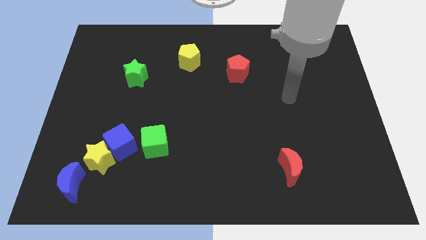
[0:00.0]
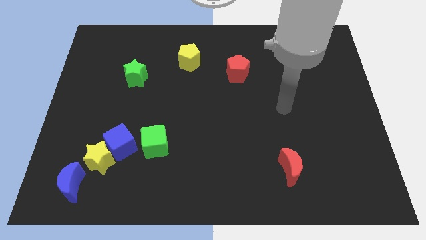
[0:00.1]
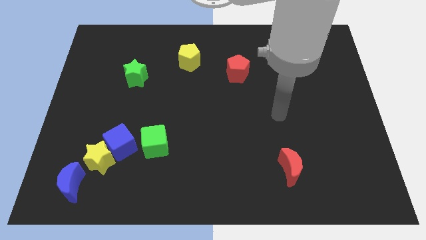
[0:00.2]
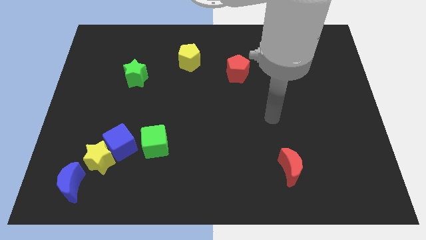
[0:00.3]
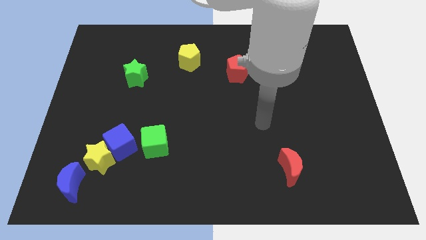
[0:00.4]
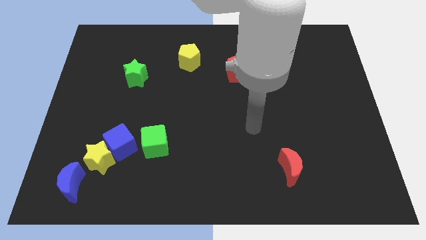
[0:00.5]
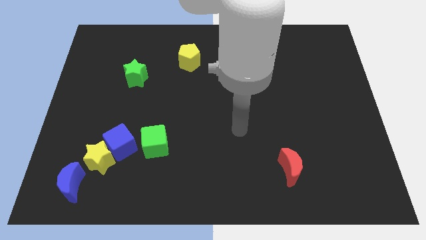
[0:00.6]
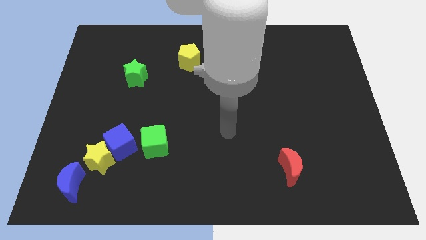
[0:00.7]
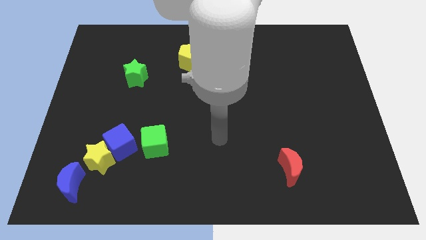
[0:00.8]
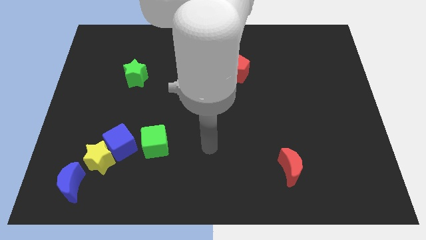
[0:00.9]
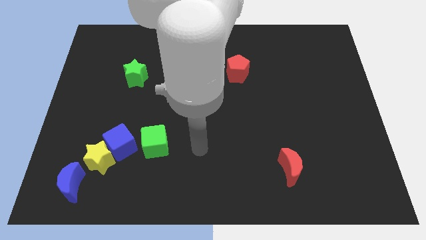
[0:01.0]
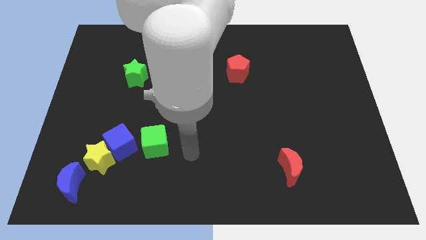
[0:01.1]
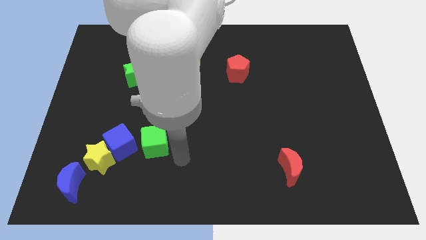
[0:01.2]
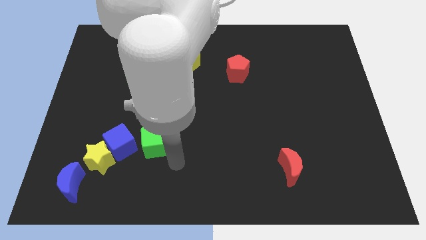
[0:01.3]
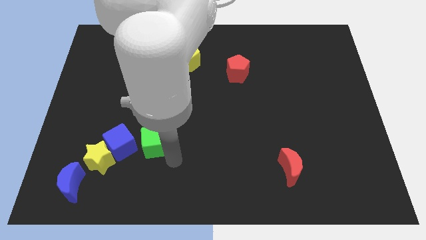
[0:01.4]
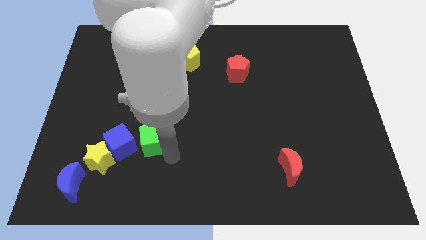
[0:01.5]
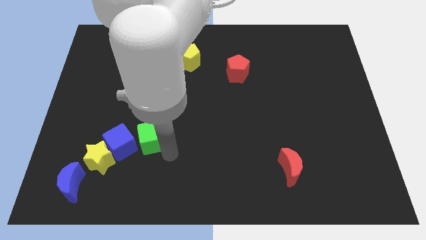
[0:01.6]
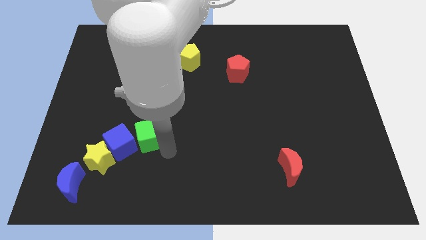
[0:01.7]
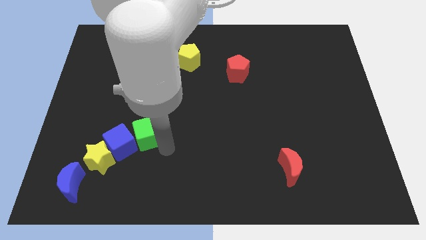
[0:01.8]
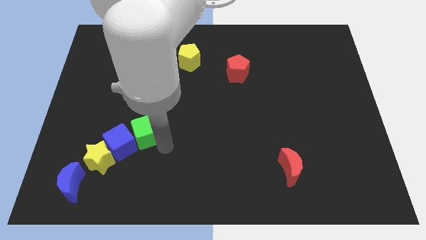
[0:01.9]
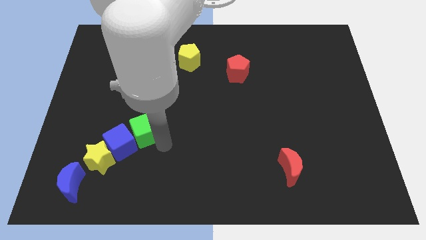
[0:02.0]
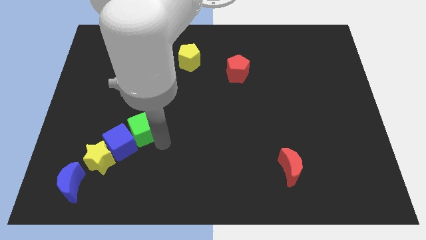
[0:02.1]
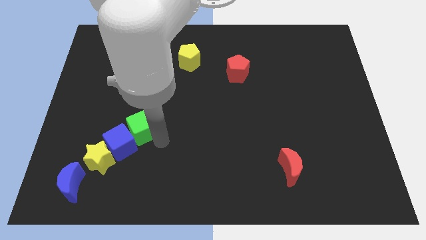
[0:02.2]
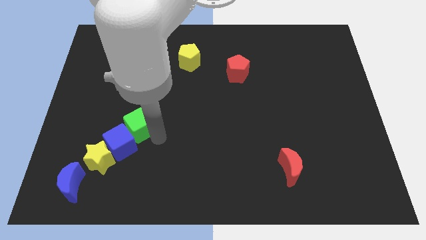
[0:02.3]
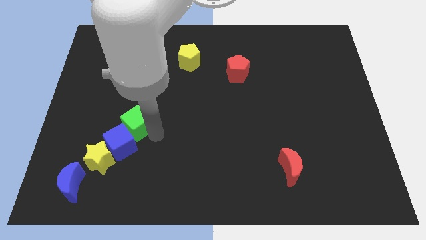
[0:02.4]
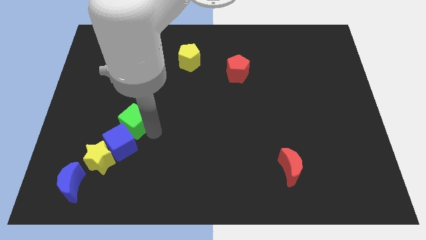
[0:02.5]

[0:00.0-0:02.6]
move the green cube a little up and to the left

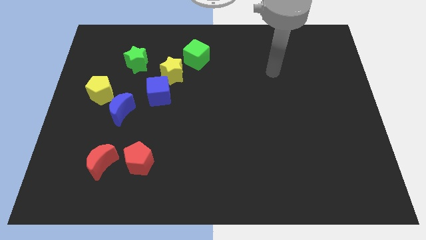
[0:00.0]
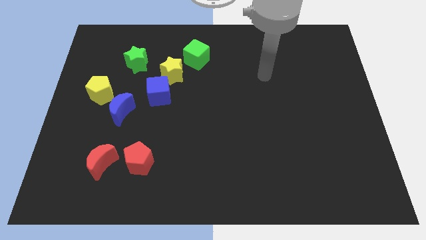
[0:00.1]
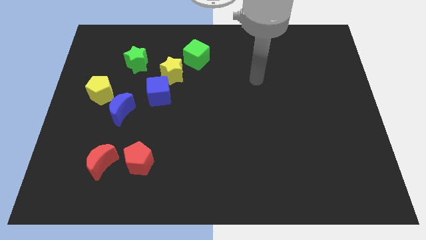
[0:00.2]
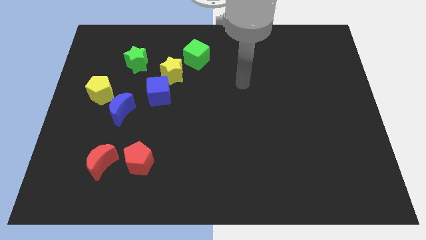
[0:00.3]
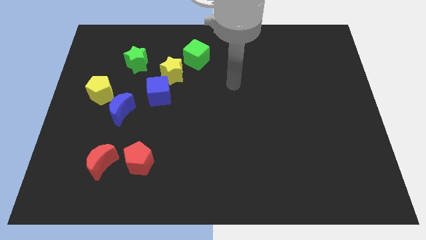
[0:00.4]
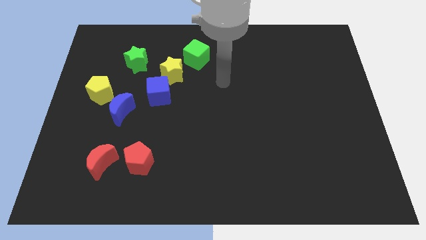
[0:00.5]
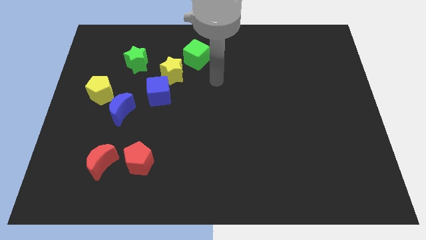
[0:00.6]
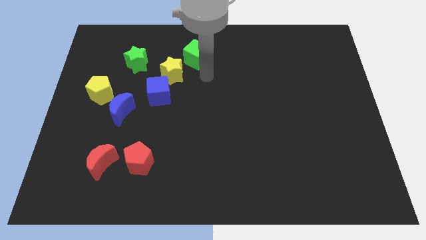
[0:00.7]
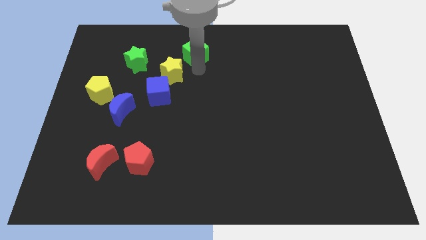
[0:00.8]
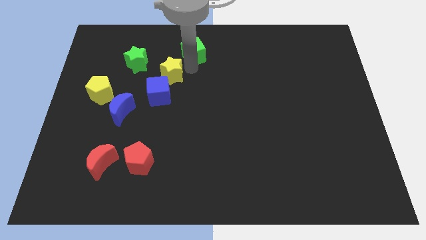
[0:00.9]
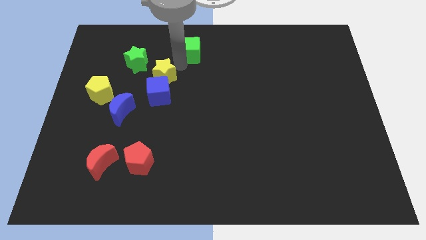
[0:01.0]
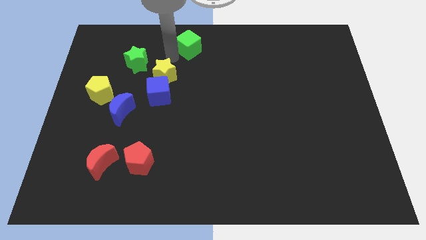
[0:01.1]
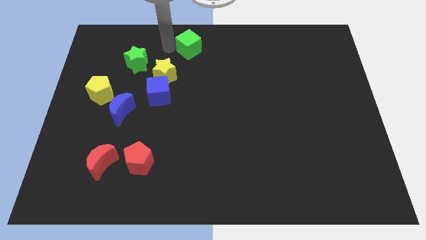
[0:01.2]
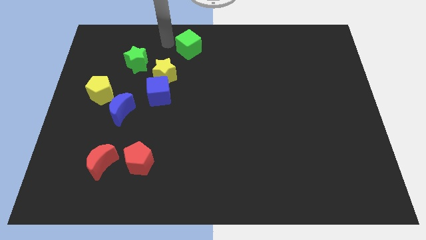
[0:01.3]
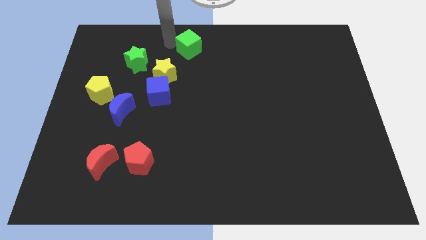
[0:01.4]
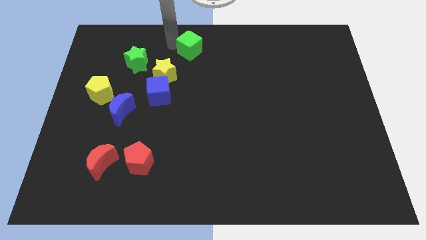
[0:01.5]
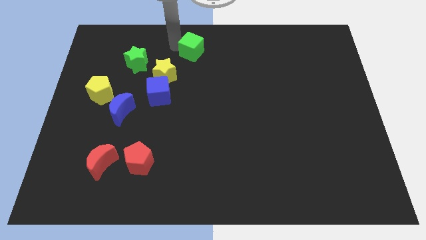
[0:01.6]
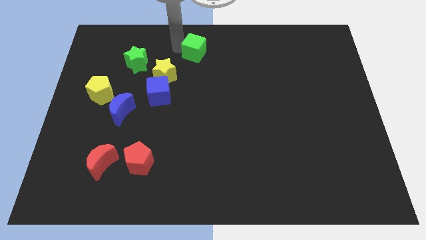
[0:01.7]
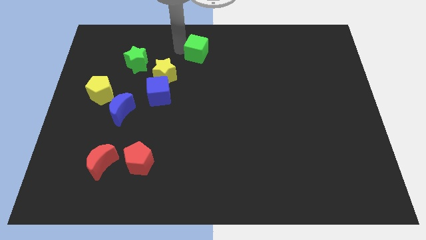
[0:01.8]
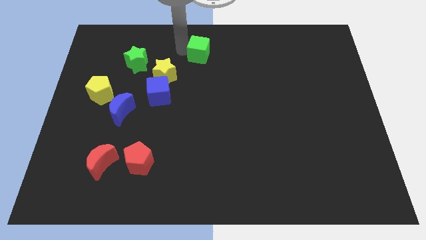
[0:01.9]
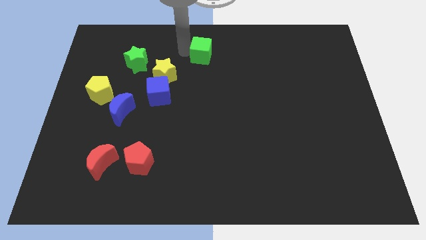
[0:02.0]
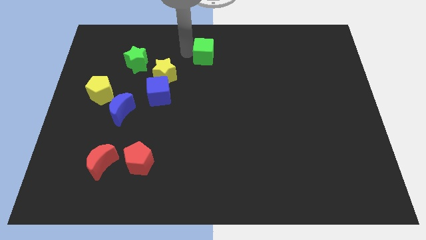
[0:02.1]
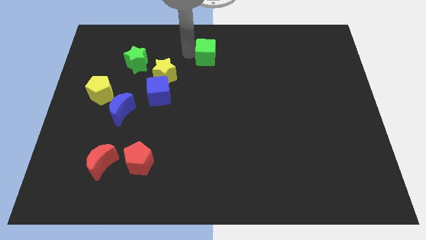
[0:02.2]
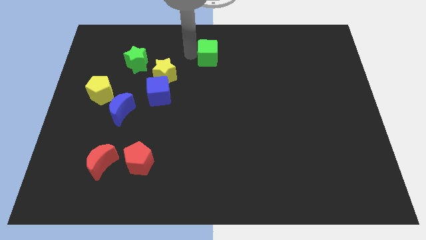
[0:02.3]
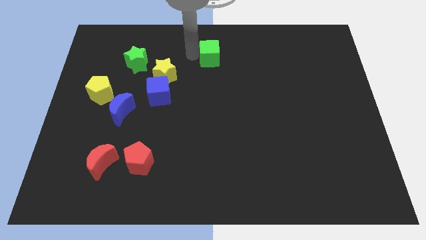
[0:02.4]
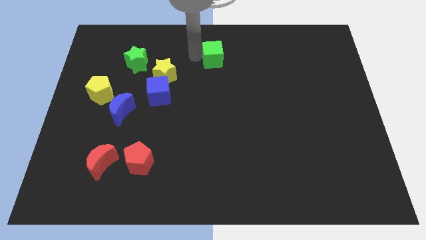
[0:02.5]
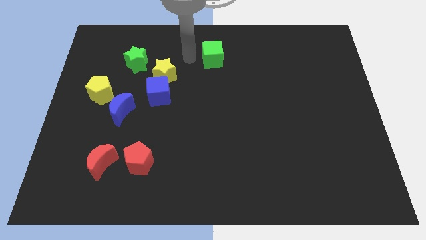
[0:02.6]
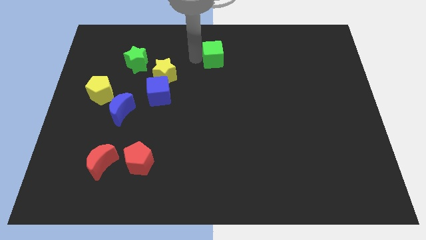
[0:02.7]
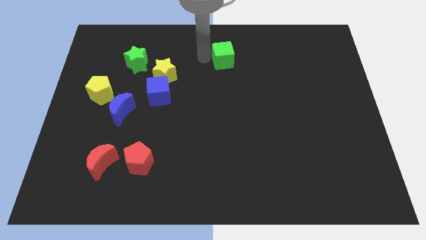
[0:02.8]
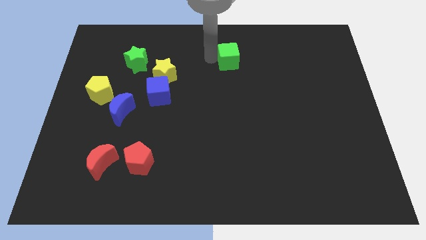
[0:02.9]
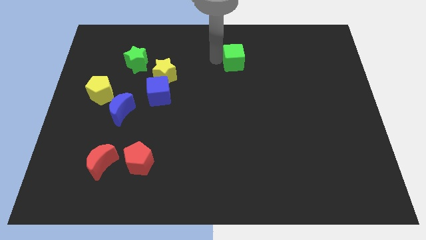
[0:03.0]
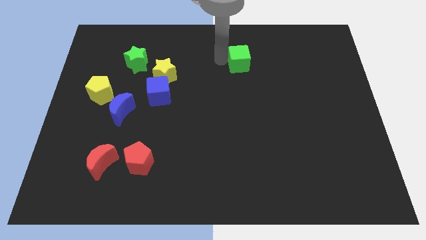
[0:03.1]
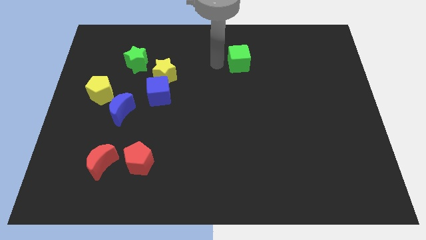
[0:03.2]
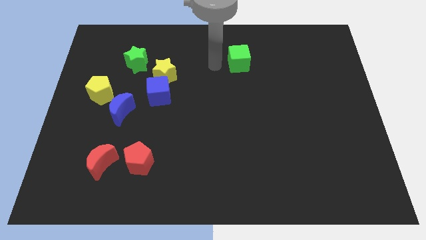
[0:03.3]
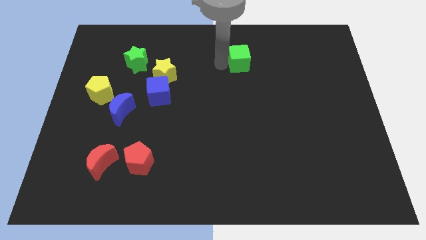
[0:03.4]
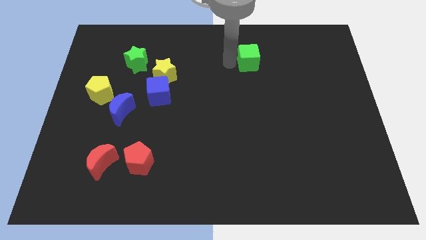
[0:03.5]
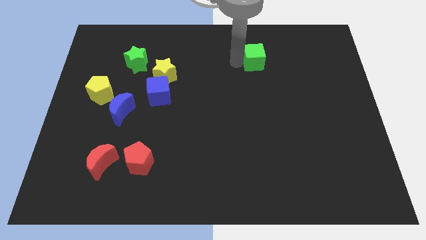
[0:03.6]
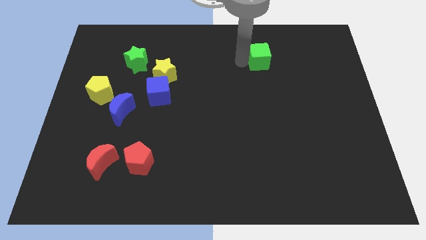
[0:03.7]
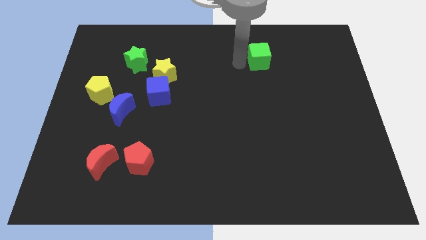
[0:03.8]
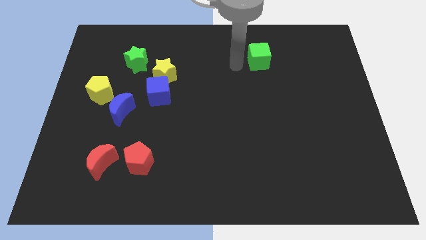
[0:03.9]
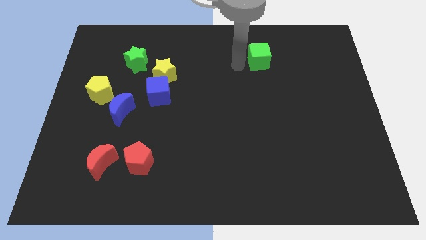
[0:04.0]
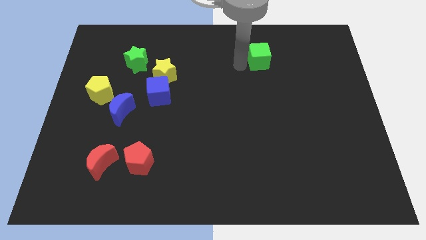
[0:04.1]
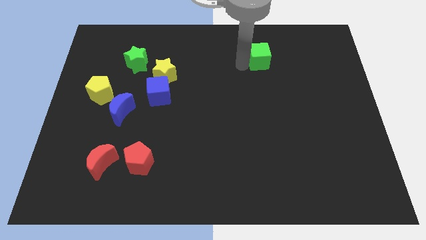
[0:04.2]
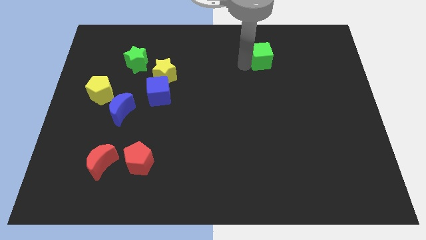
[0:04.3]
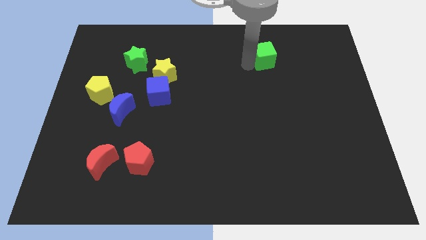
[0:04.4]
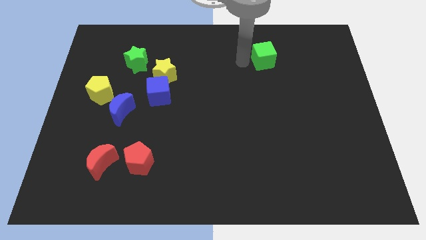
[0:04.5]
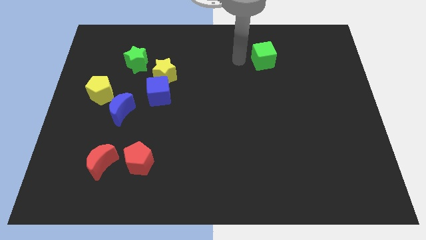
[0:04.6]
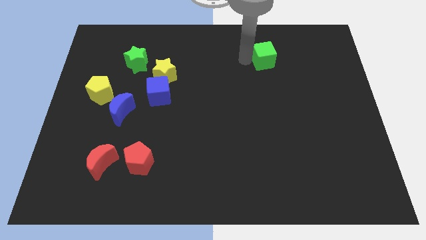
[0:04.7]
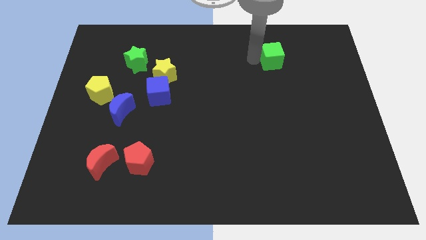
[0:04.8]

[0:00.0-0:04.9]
slide the green cube right

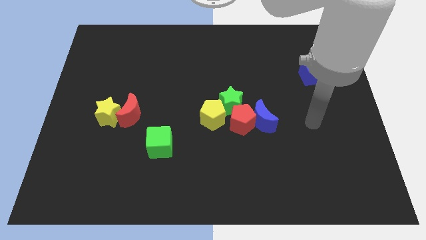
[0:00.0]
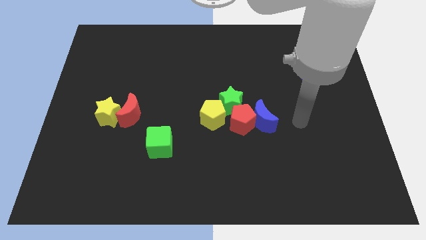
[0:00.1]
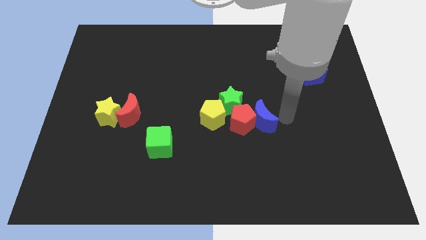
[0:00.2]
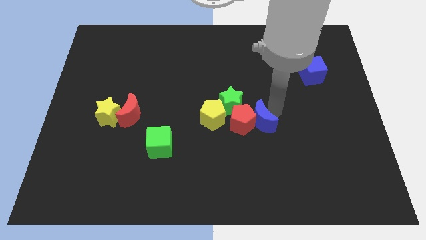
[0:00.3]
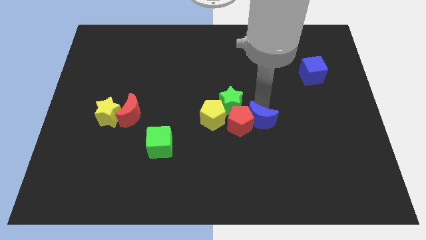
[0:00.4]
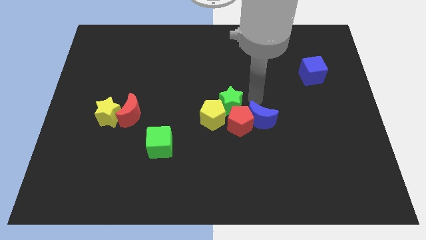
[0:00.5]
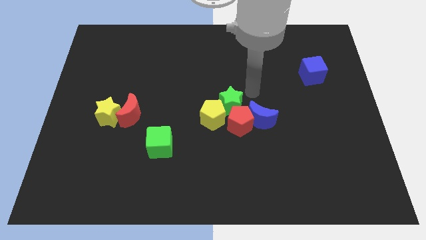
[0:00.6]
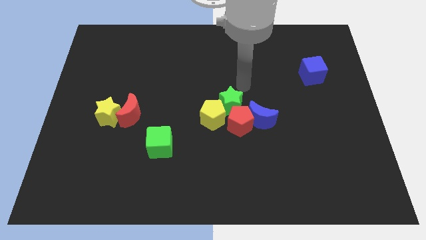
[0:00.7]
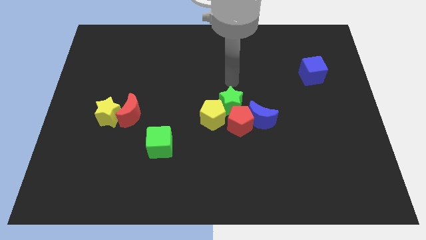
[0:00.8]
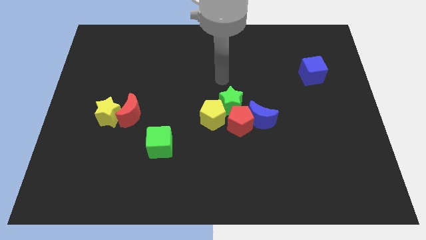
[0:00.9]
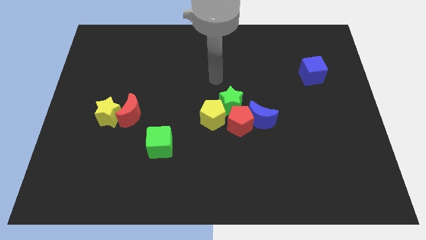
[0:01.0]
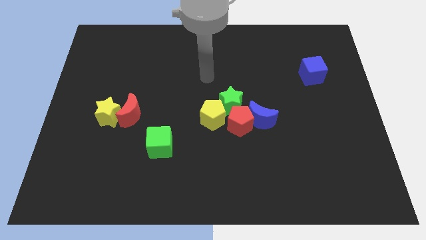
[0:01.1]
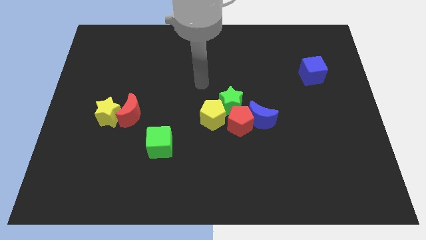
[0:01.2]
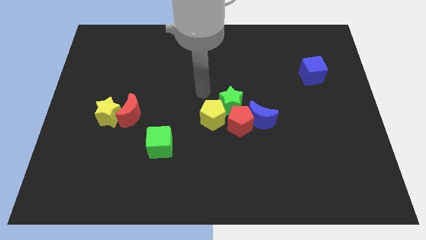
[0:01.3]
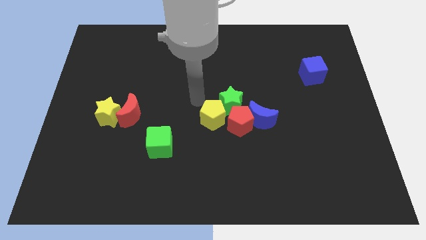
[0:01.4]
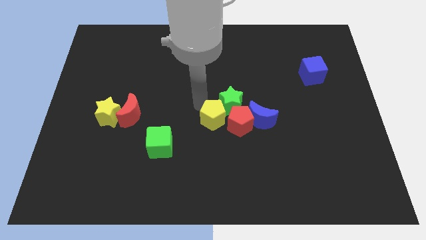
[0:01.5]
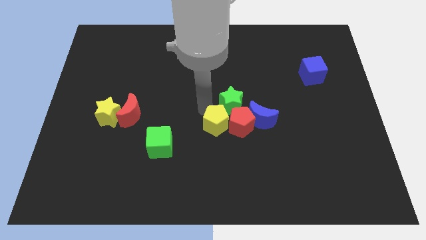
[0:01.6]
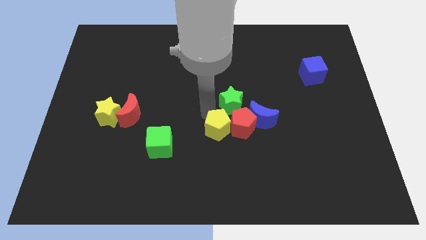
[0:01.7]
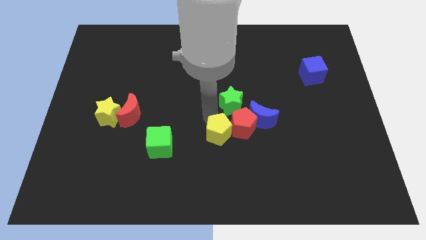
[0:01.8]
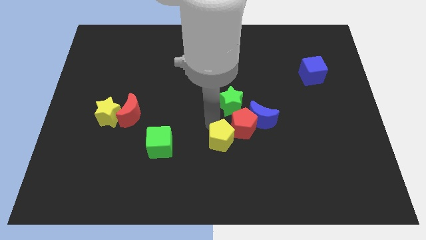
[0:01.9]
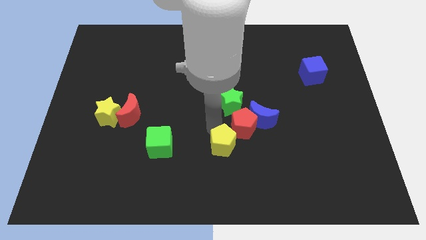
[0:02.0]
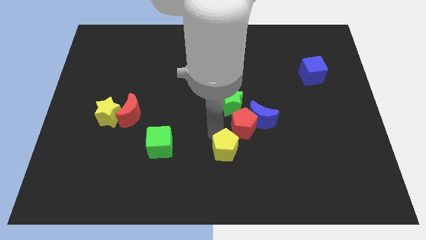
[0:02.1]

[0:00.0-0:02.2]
slide the yellow pentagon slightly down and to the right diagonally
